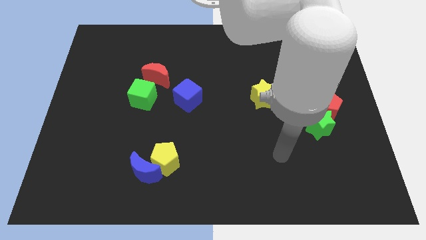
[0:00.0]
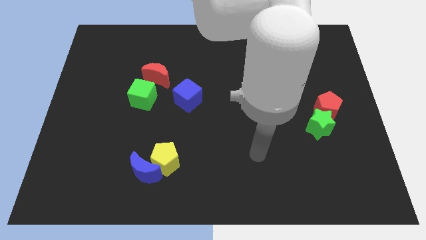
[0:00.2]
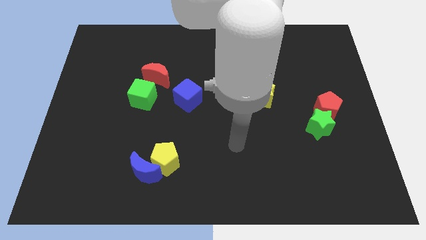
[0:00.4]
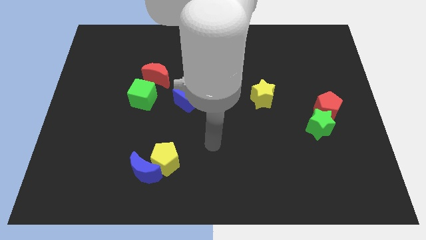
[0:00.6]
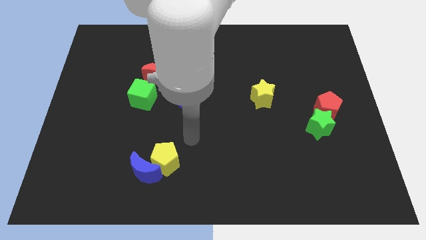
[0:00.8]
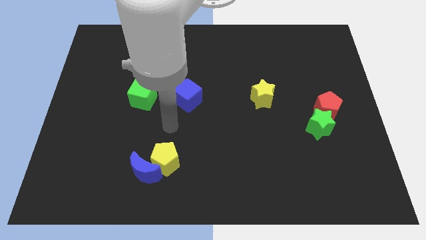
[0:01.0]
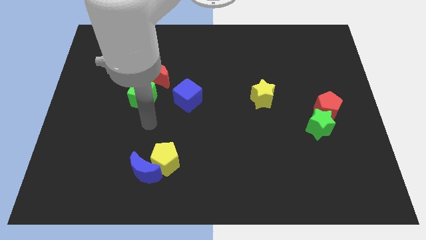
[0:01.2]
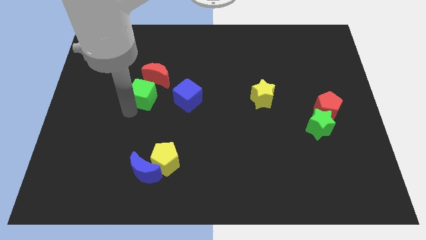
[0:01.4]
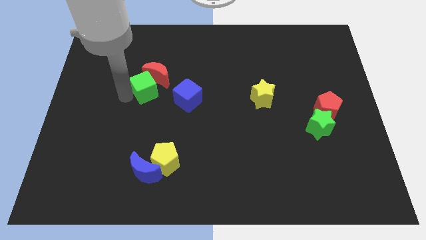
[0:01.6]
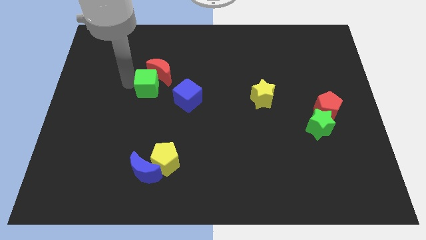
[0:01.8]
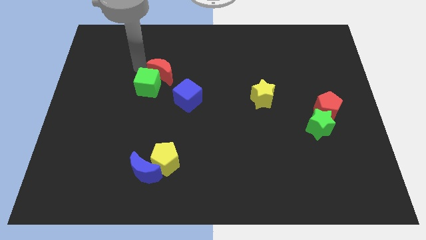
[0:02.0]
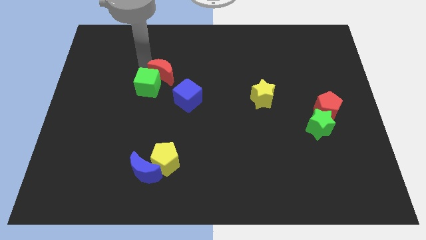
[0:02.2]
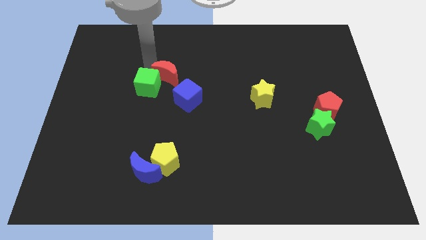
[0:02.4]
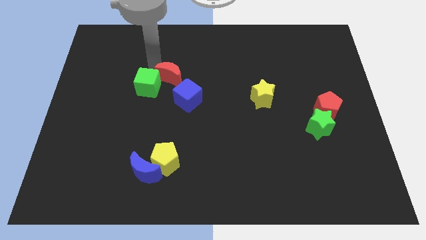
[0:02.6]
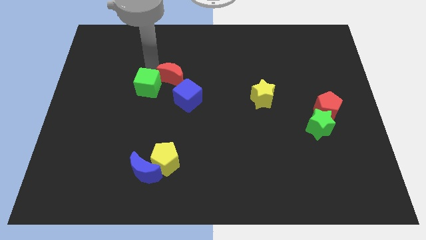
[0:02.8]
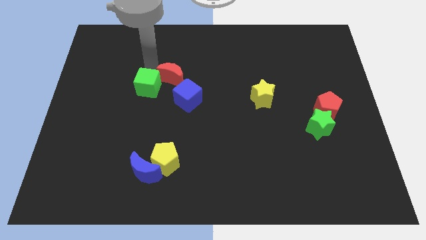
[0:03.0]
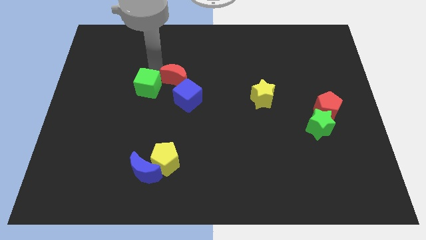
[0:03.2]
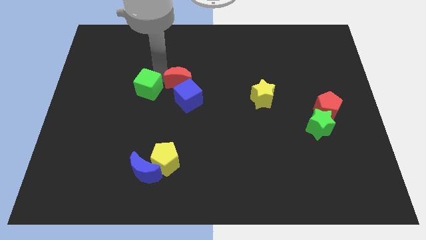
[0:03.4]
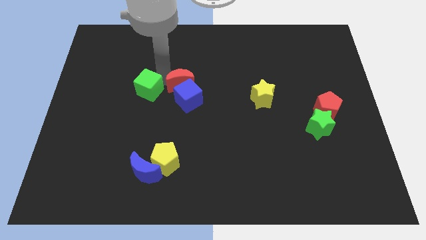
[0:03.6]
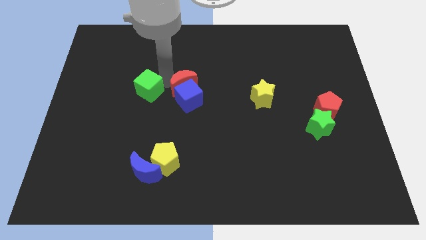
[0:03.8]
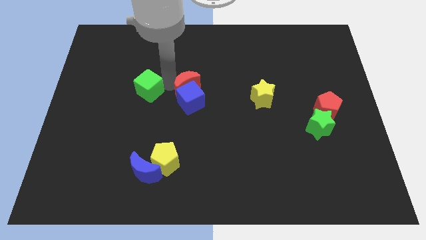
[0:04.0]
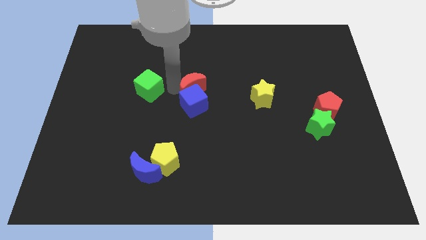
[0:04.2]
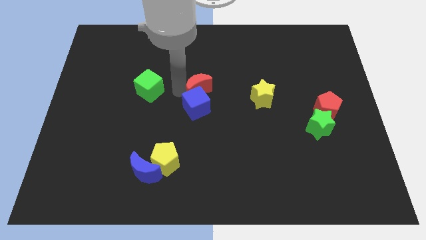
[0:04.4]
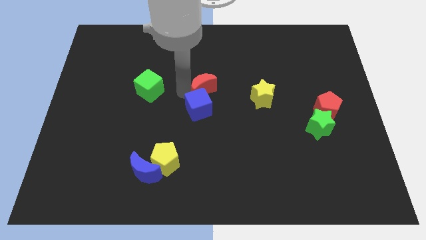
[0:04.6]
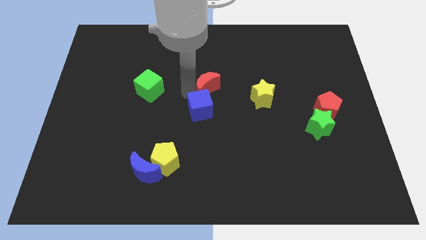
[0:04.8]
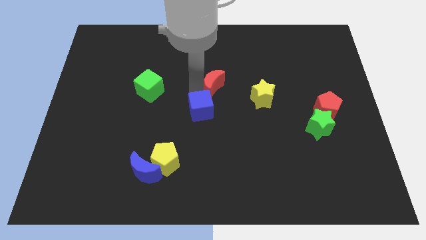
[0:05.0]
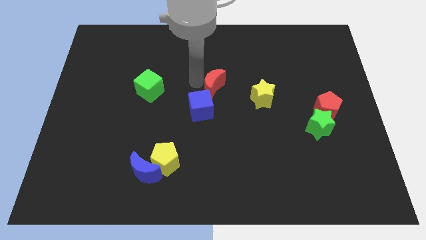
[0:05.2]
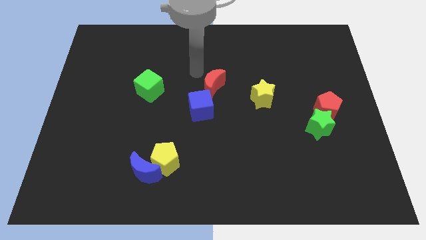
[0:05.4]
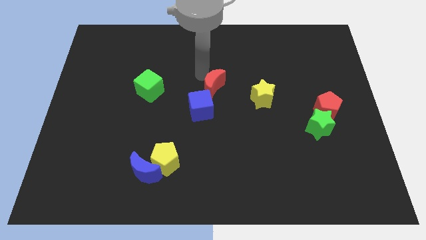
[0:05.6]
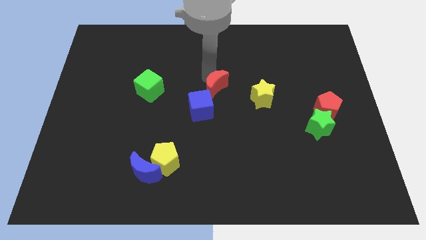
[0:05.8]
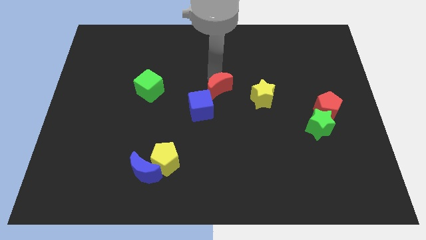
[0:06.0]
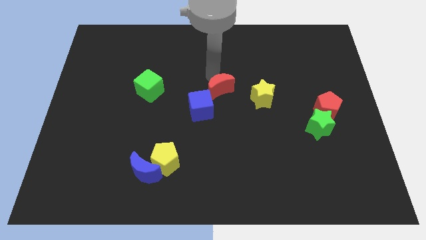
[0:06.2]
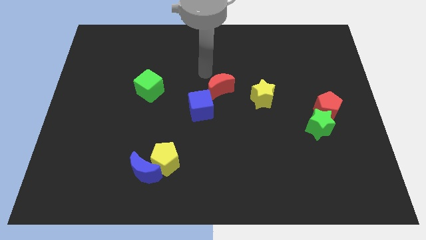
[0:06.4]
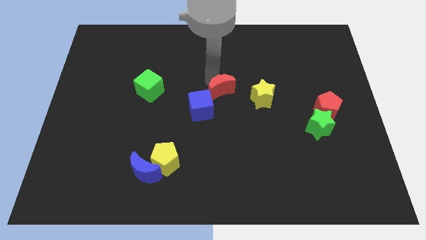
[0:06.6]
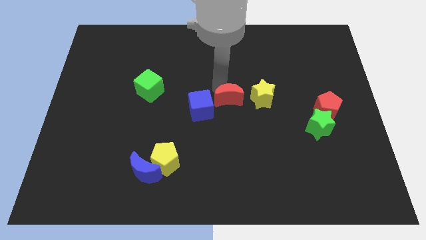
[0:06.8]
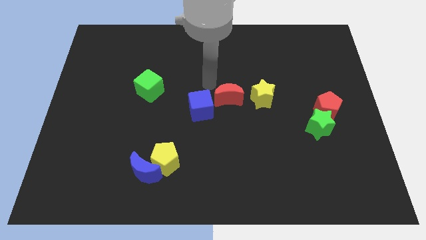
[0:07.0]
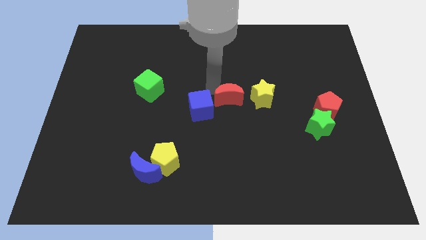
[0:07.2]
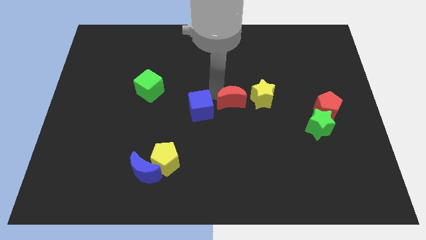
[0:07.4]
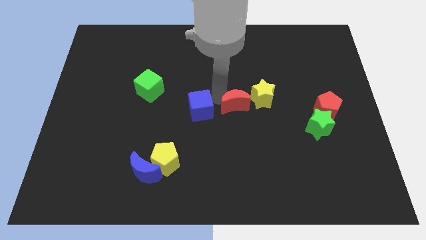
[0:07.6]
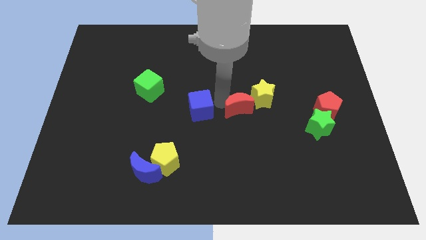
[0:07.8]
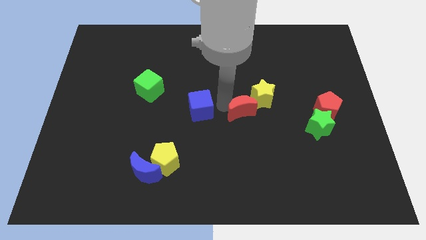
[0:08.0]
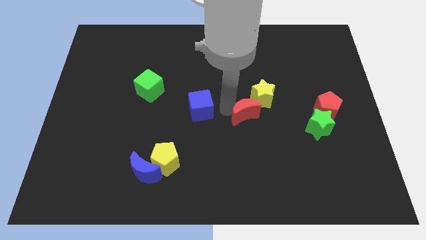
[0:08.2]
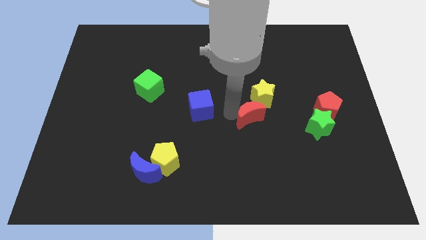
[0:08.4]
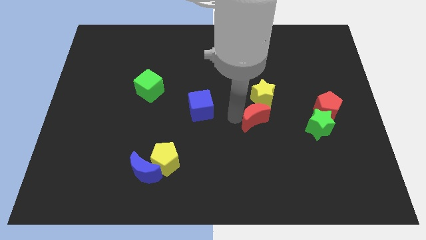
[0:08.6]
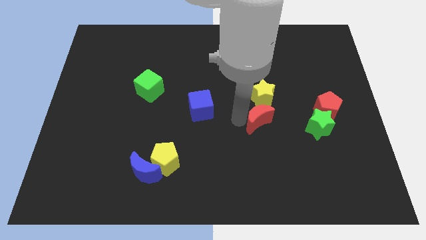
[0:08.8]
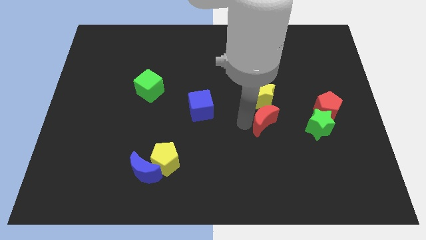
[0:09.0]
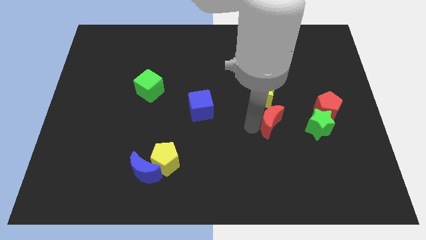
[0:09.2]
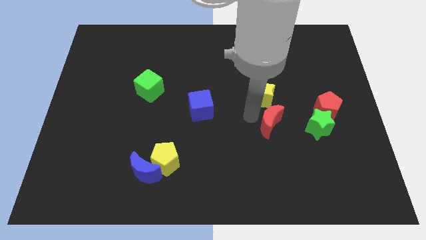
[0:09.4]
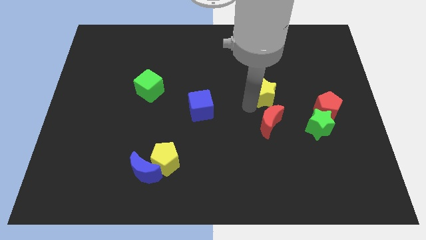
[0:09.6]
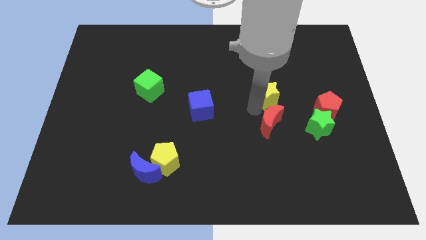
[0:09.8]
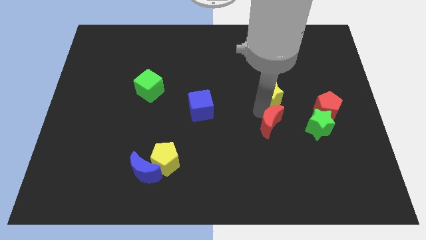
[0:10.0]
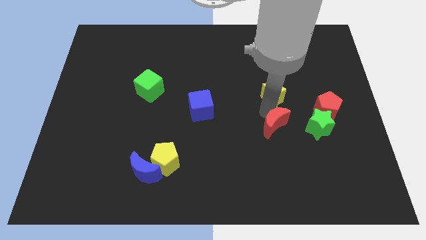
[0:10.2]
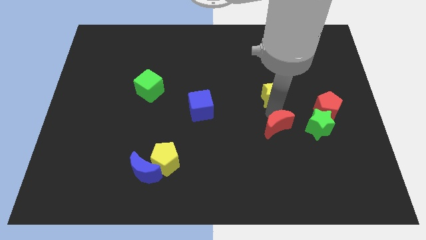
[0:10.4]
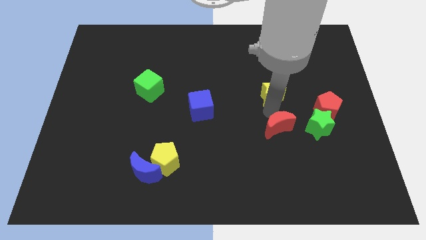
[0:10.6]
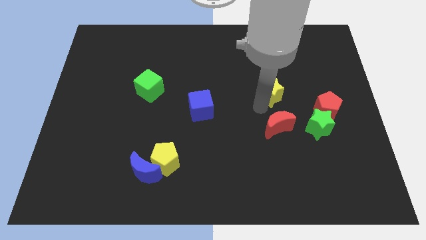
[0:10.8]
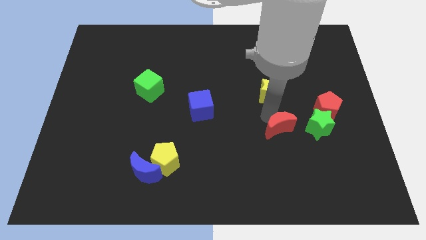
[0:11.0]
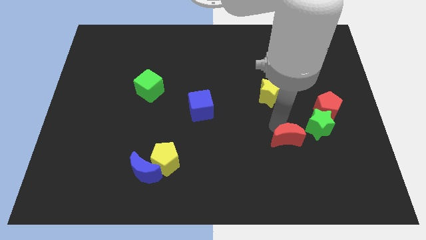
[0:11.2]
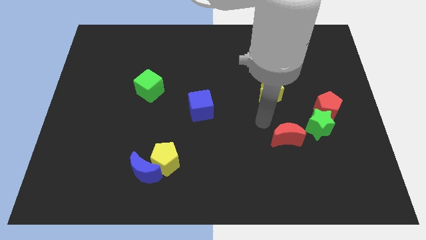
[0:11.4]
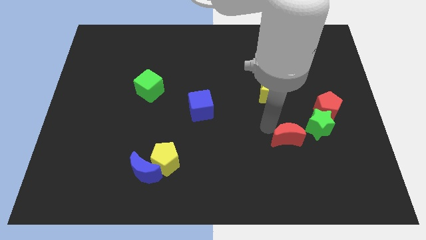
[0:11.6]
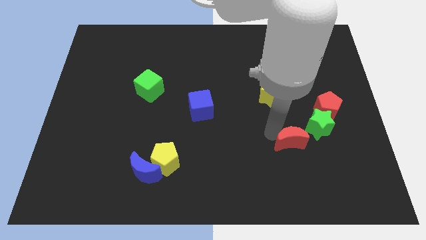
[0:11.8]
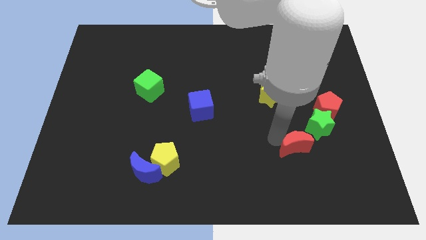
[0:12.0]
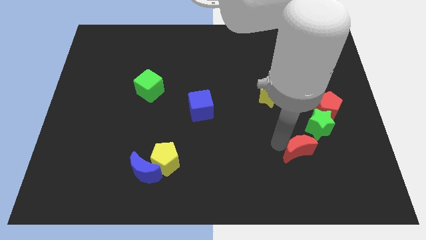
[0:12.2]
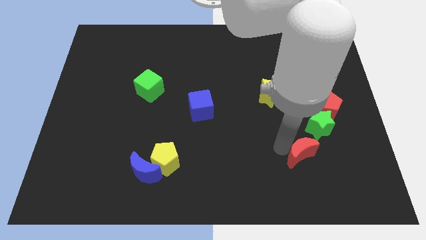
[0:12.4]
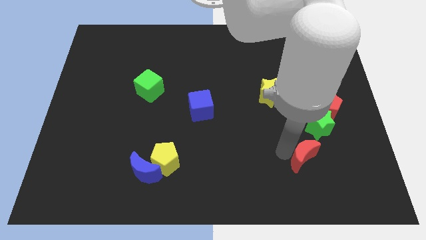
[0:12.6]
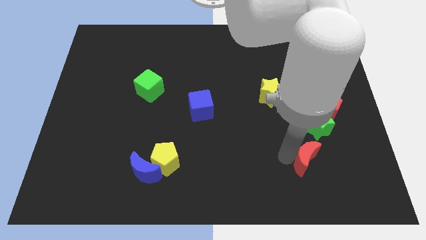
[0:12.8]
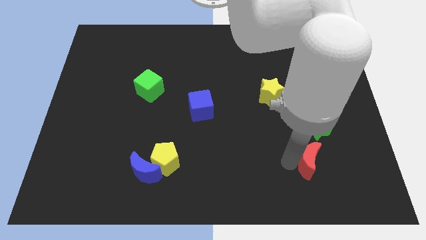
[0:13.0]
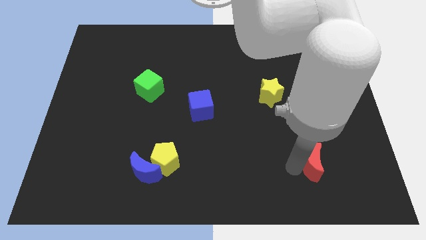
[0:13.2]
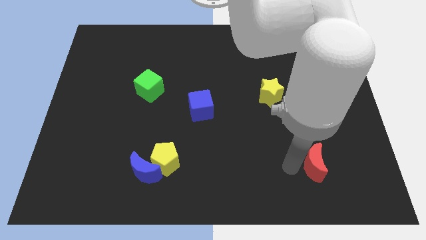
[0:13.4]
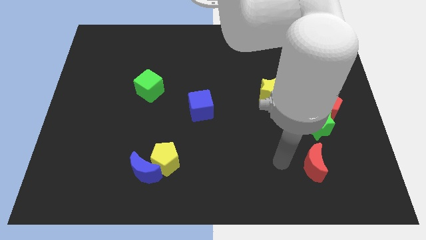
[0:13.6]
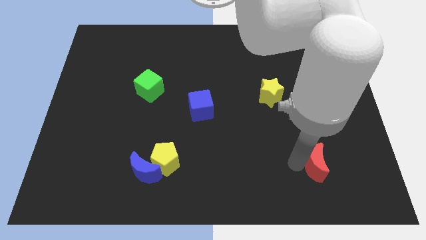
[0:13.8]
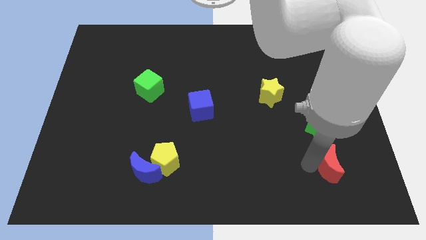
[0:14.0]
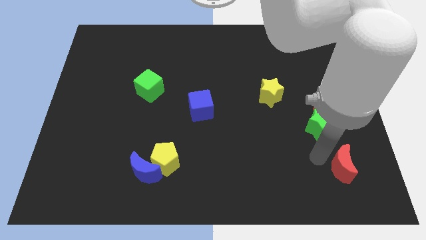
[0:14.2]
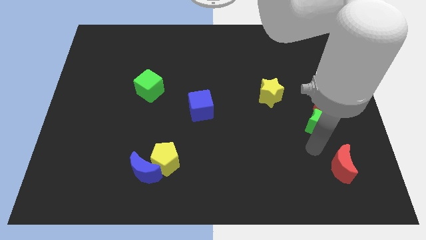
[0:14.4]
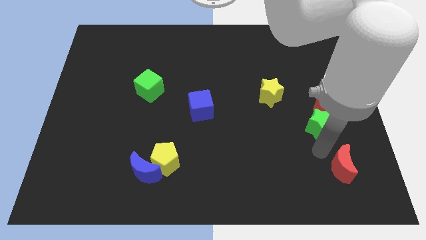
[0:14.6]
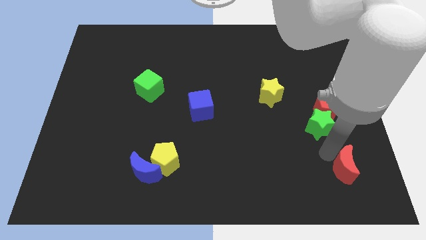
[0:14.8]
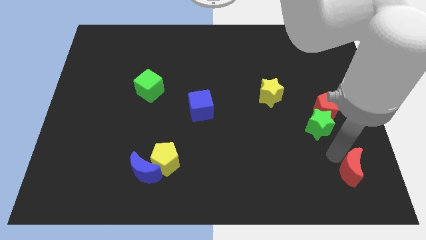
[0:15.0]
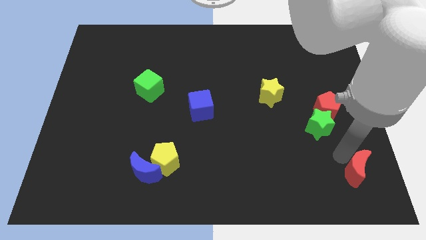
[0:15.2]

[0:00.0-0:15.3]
push the red moon to the bottom right
